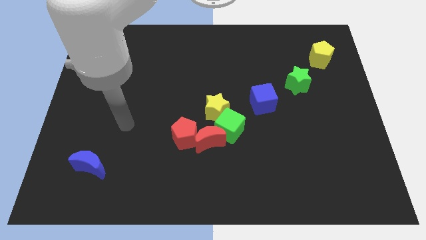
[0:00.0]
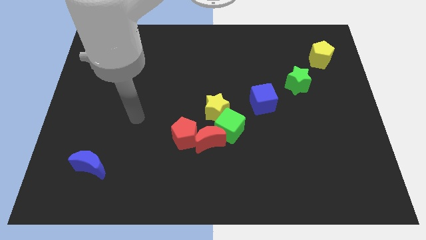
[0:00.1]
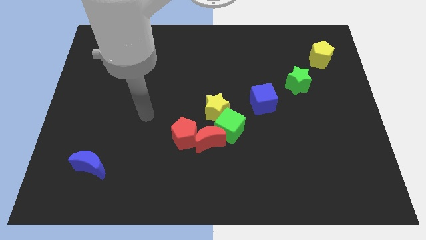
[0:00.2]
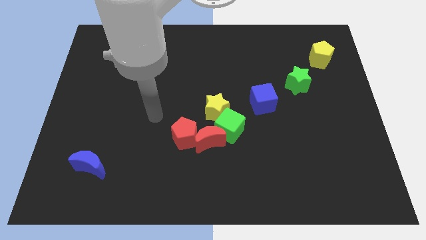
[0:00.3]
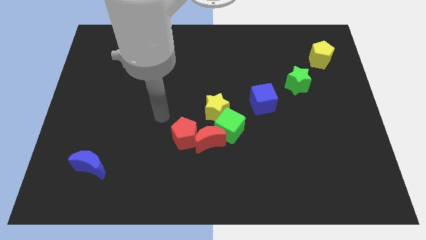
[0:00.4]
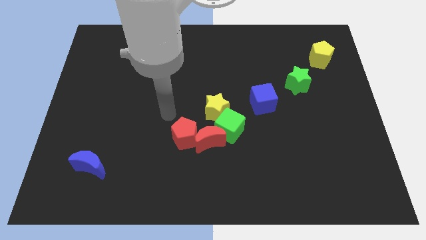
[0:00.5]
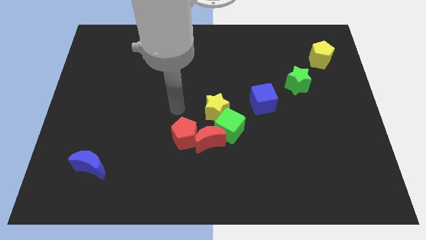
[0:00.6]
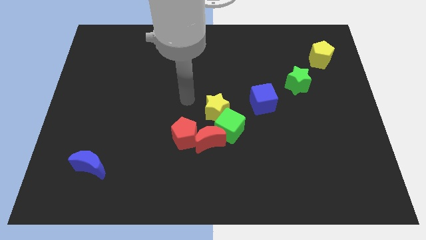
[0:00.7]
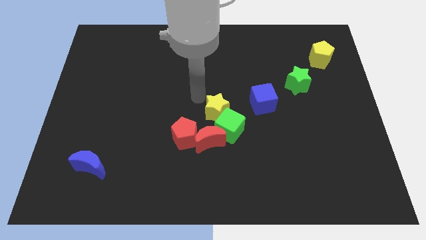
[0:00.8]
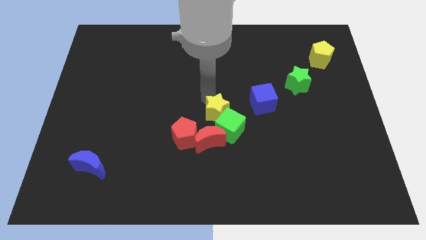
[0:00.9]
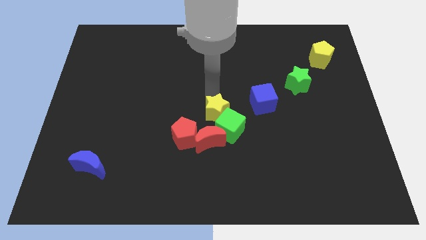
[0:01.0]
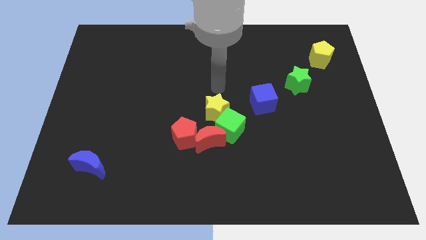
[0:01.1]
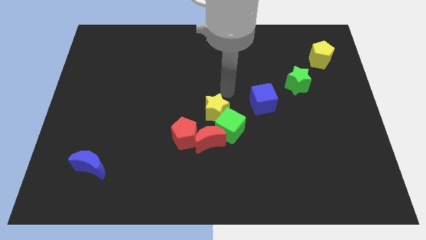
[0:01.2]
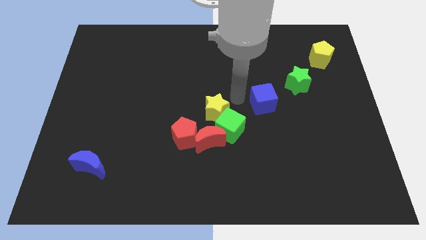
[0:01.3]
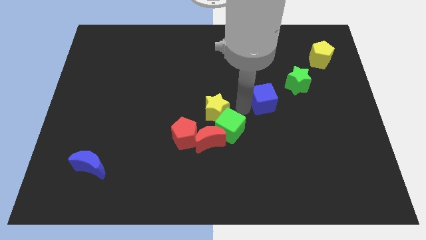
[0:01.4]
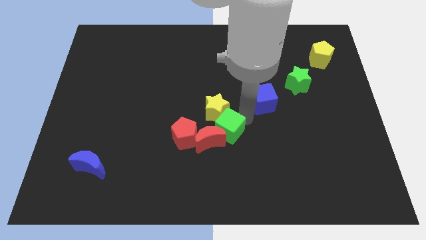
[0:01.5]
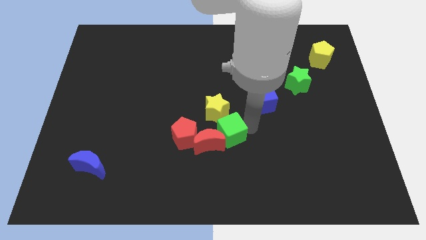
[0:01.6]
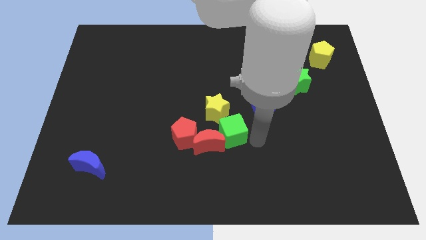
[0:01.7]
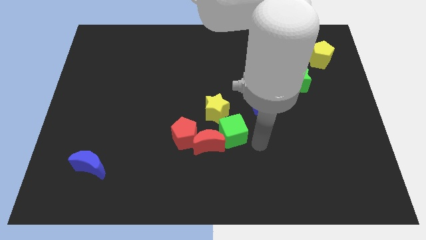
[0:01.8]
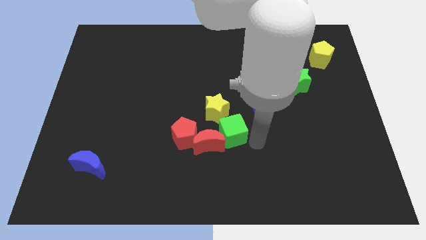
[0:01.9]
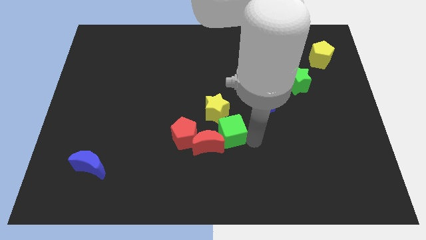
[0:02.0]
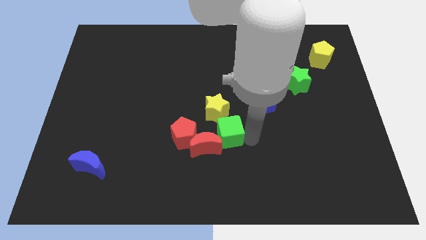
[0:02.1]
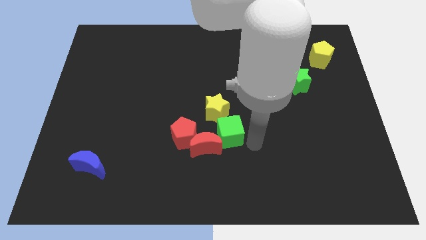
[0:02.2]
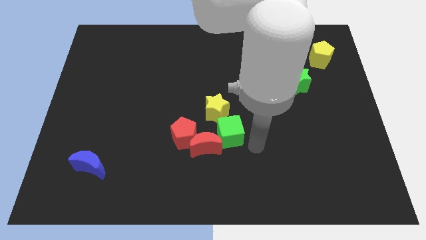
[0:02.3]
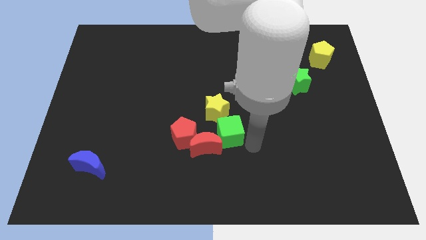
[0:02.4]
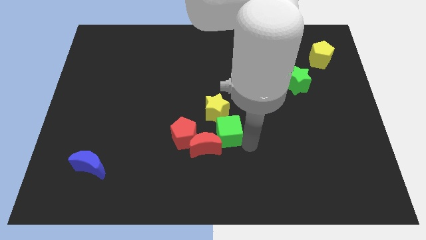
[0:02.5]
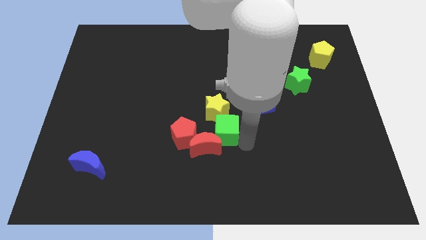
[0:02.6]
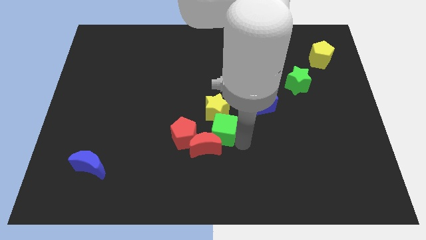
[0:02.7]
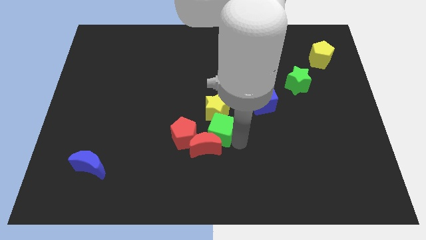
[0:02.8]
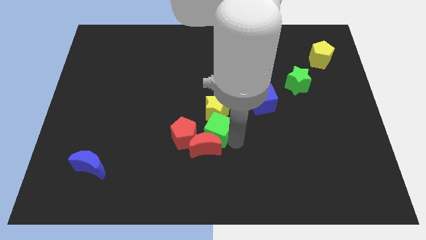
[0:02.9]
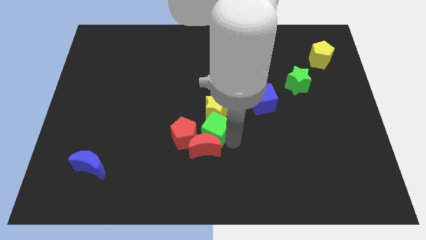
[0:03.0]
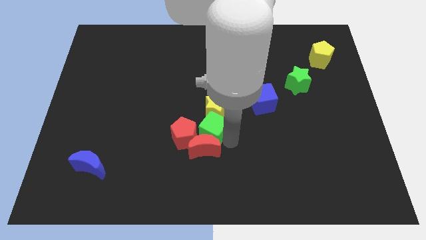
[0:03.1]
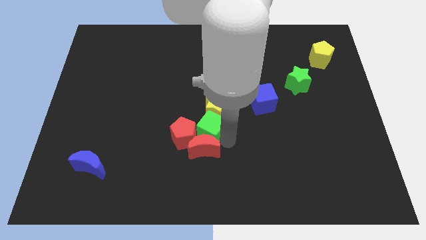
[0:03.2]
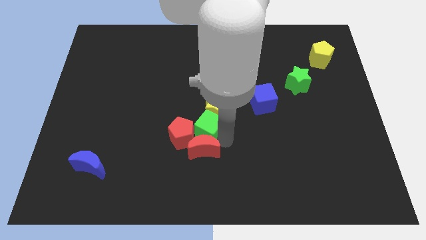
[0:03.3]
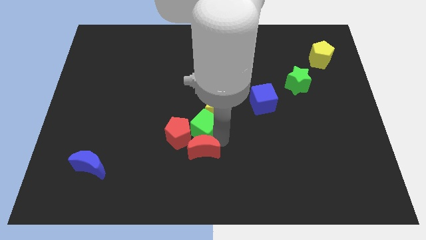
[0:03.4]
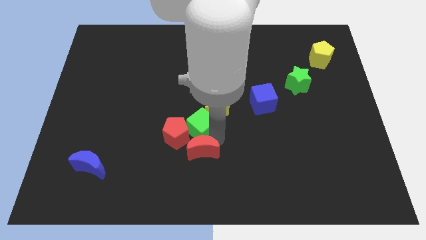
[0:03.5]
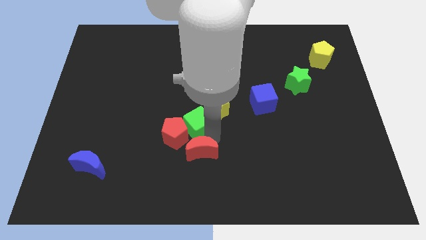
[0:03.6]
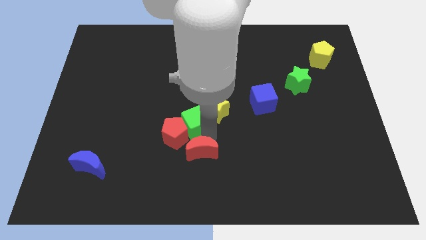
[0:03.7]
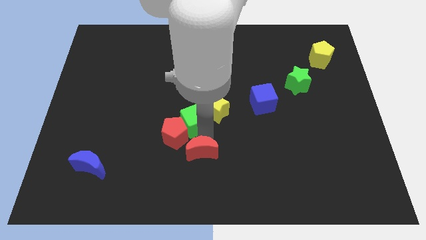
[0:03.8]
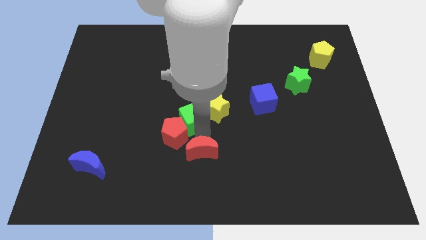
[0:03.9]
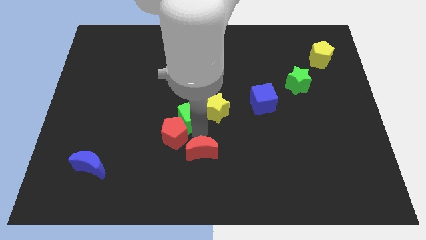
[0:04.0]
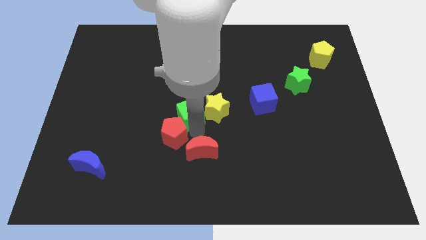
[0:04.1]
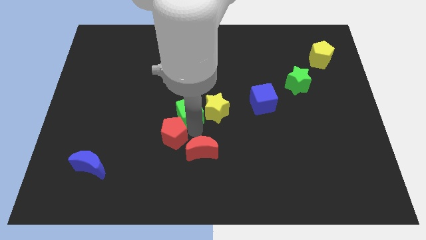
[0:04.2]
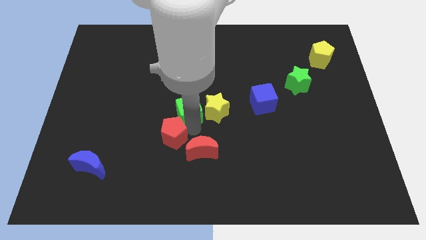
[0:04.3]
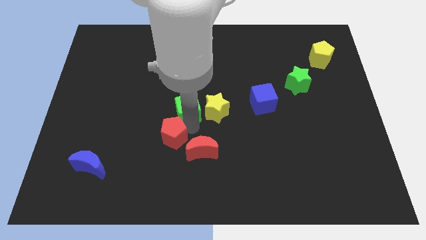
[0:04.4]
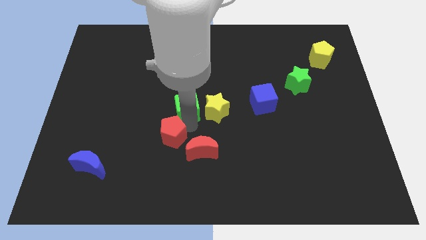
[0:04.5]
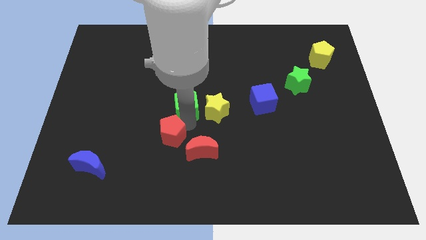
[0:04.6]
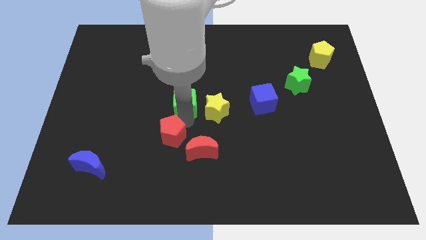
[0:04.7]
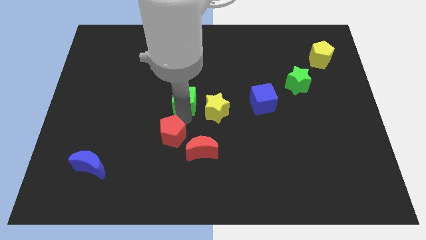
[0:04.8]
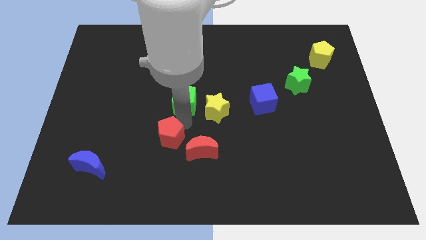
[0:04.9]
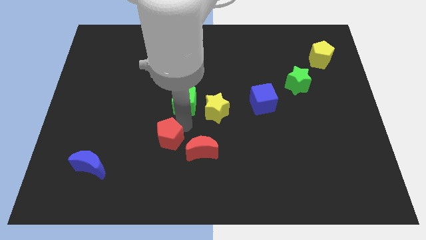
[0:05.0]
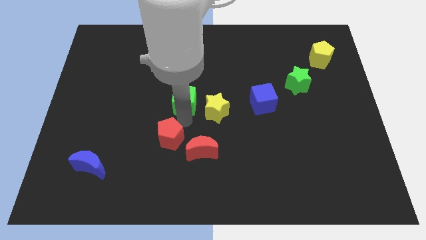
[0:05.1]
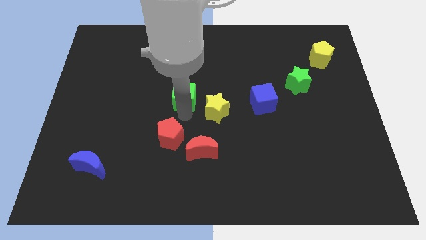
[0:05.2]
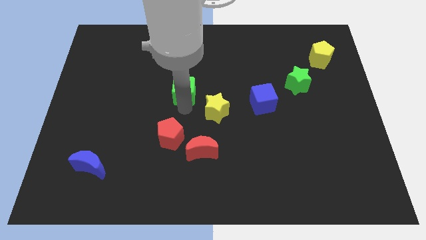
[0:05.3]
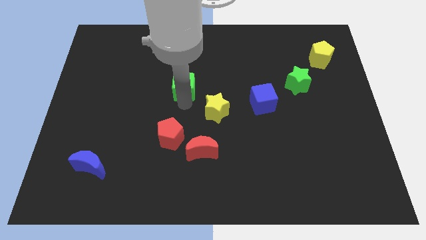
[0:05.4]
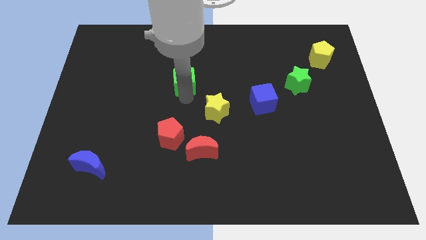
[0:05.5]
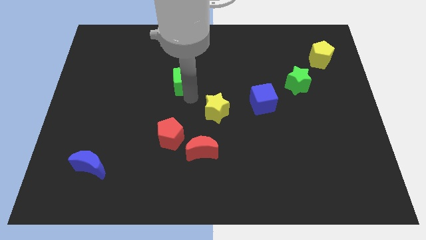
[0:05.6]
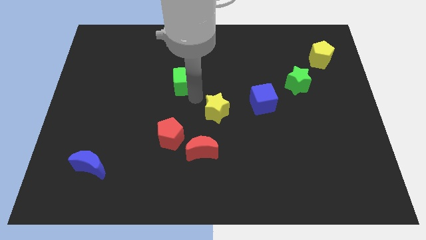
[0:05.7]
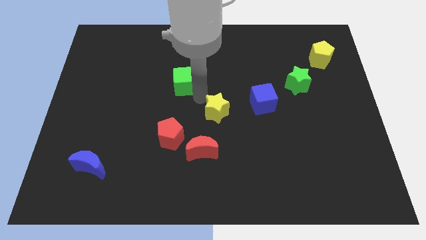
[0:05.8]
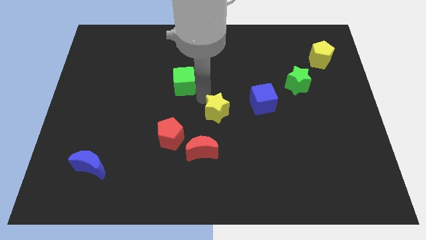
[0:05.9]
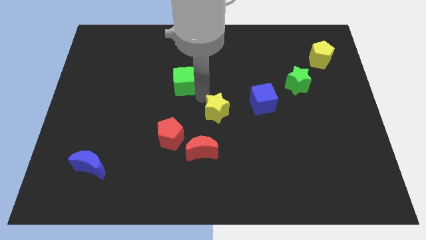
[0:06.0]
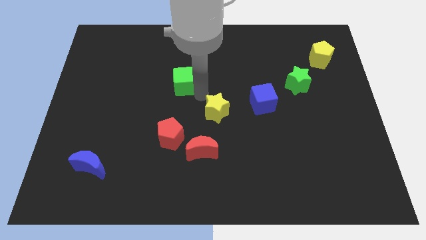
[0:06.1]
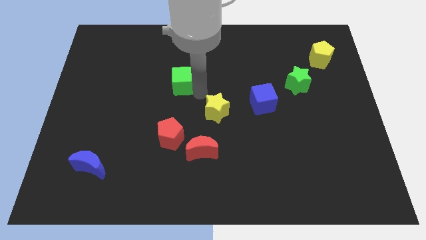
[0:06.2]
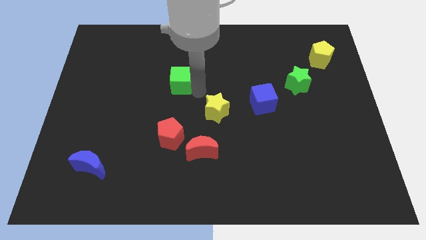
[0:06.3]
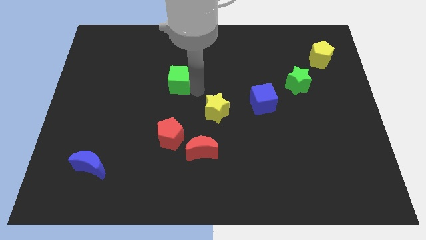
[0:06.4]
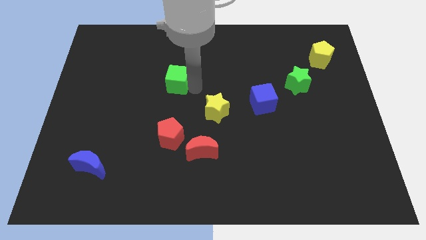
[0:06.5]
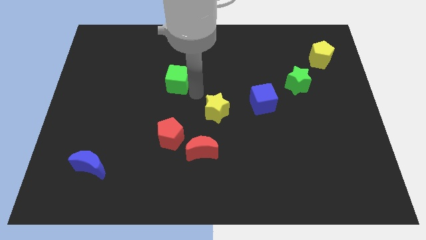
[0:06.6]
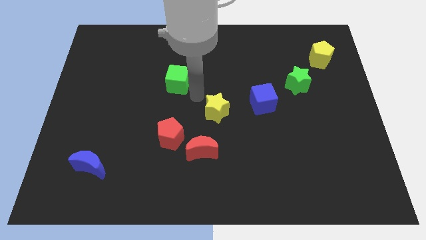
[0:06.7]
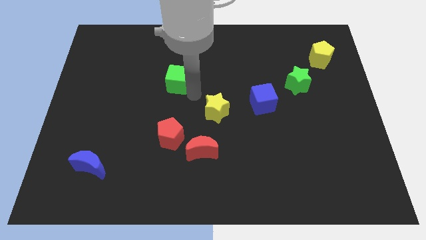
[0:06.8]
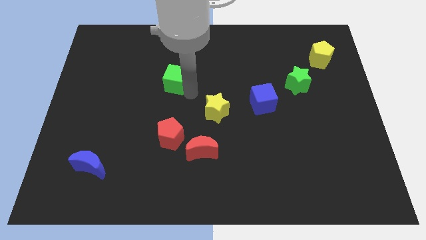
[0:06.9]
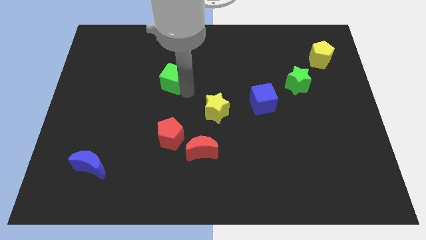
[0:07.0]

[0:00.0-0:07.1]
move the green cube up and to the left diagonally

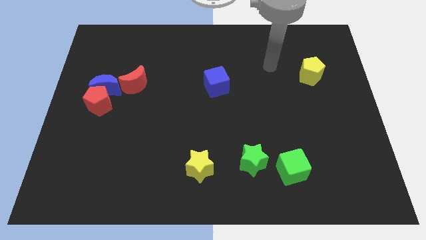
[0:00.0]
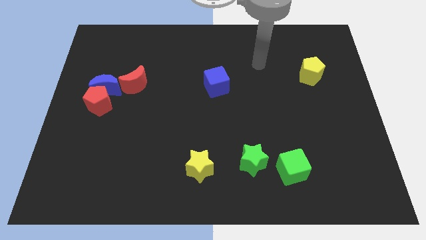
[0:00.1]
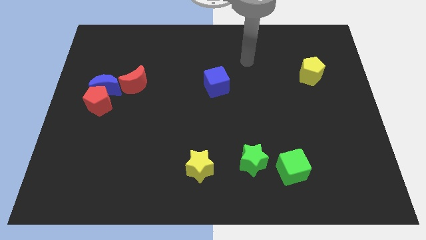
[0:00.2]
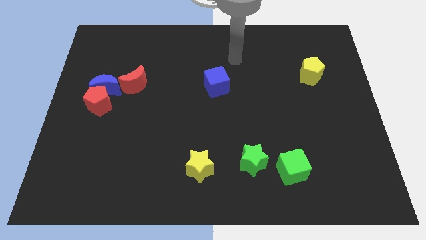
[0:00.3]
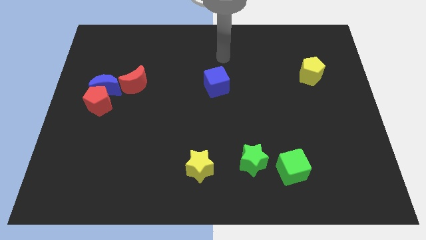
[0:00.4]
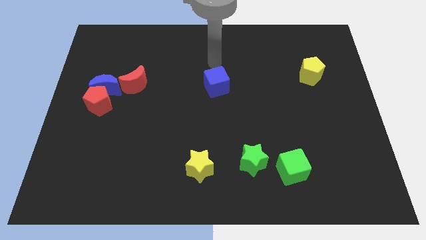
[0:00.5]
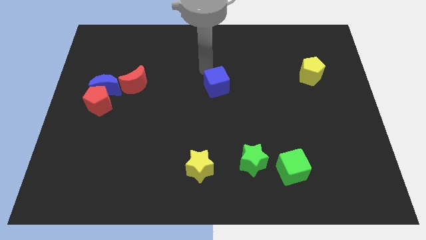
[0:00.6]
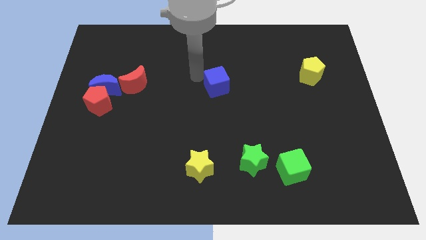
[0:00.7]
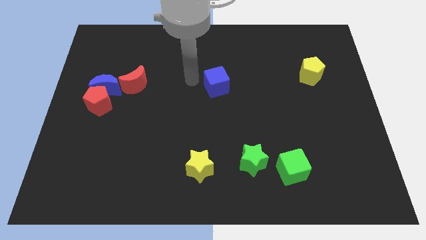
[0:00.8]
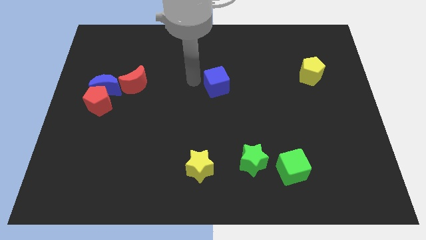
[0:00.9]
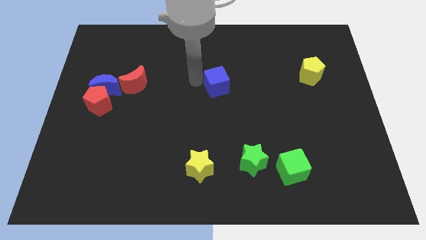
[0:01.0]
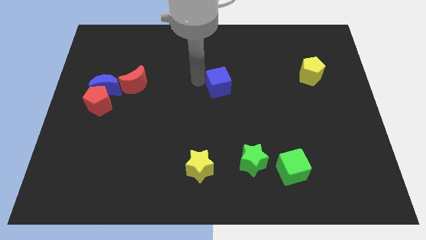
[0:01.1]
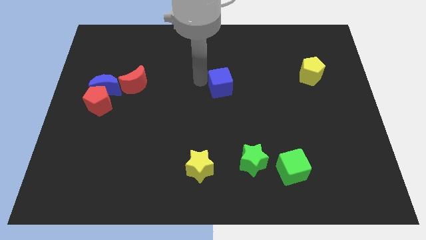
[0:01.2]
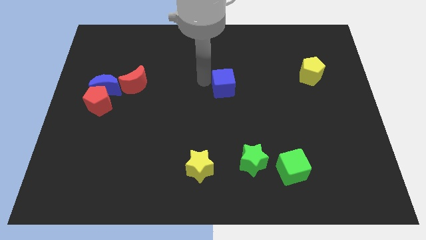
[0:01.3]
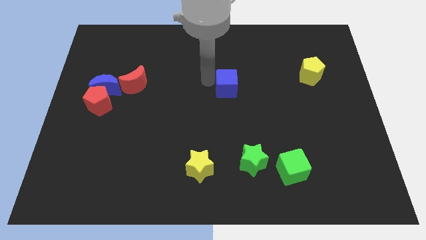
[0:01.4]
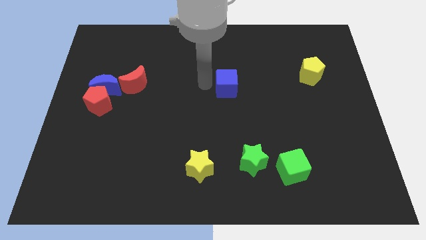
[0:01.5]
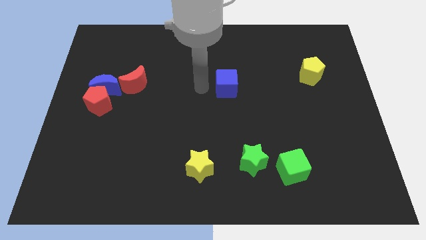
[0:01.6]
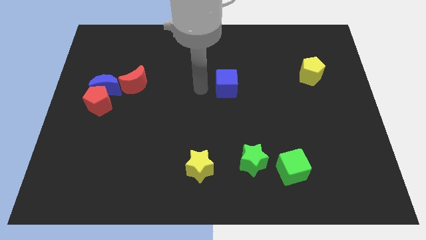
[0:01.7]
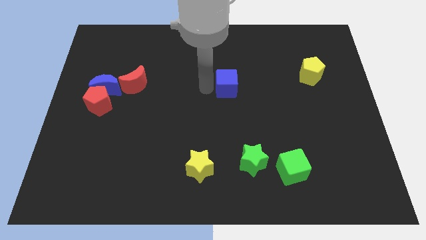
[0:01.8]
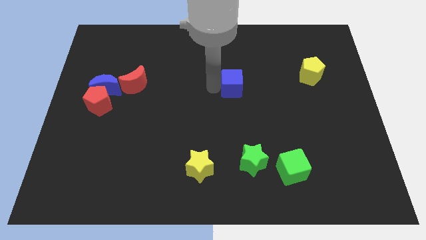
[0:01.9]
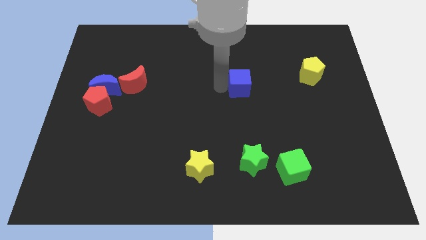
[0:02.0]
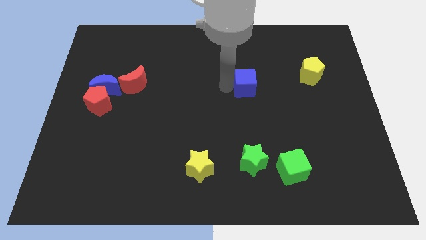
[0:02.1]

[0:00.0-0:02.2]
push the blue cube a little right
